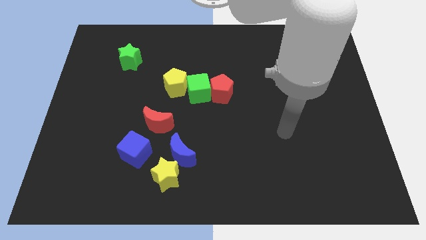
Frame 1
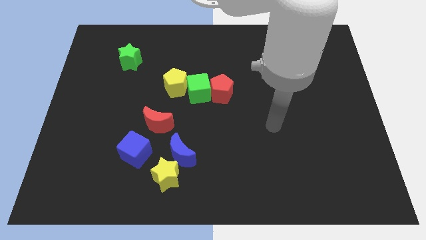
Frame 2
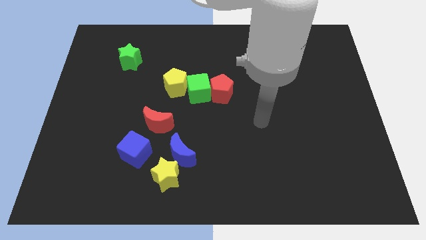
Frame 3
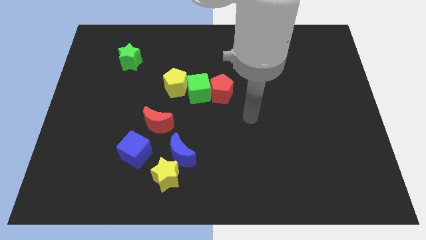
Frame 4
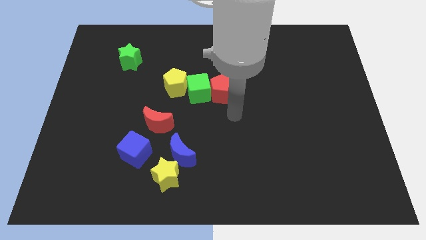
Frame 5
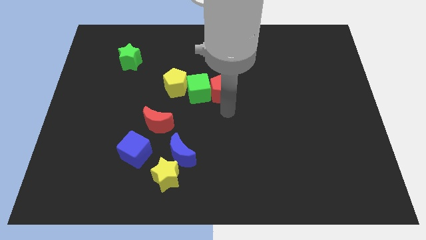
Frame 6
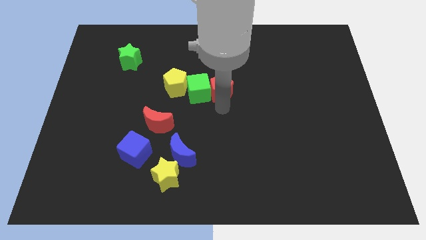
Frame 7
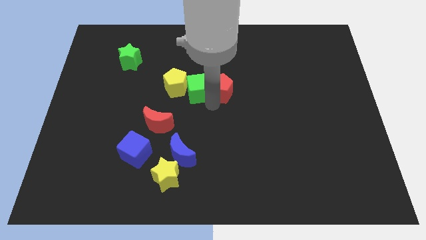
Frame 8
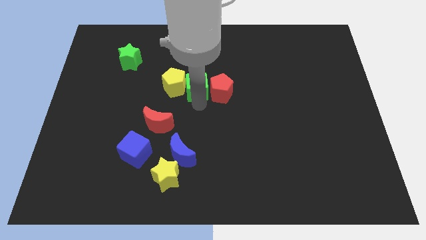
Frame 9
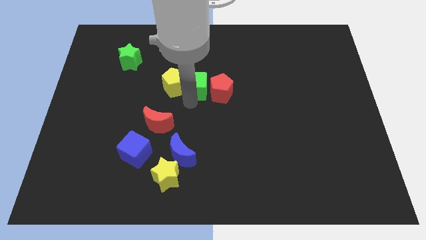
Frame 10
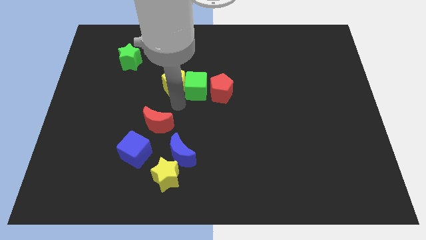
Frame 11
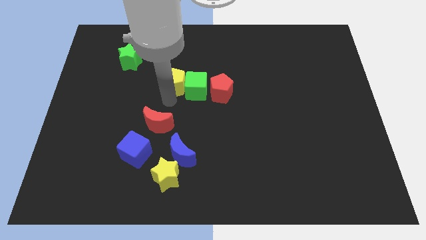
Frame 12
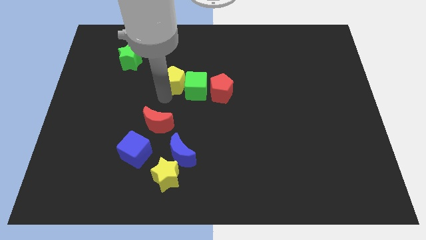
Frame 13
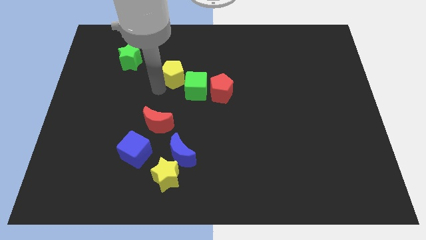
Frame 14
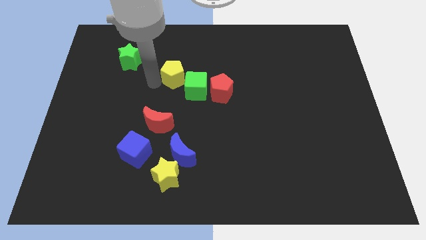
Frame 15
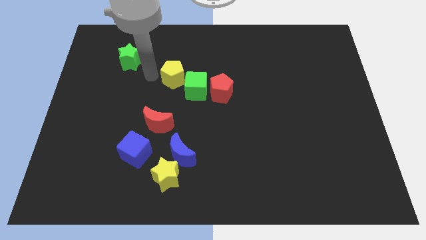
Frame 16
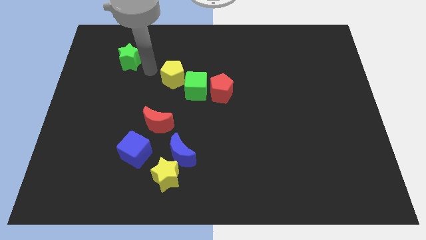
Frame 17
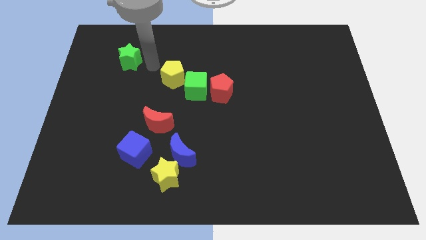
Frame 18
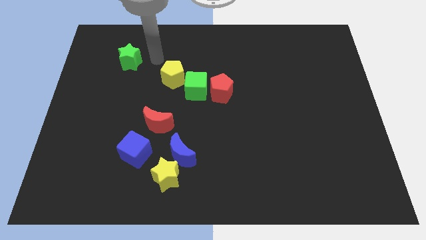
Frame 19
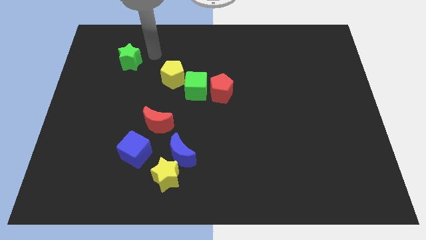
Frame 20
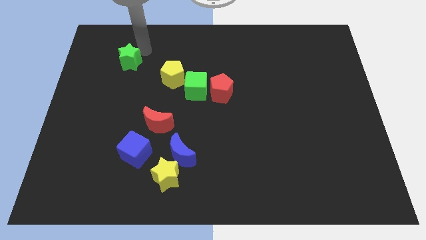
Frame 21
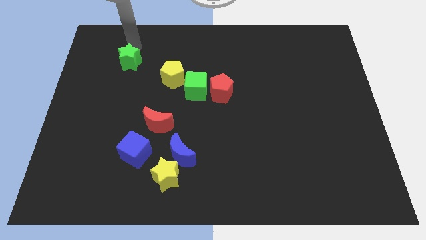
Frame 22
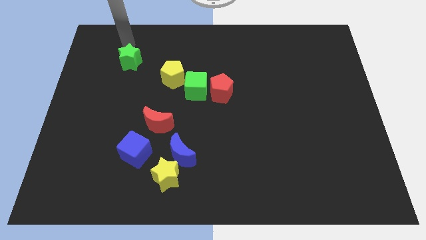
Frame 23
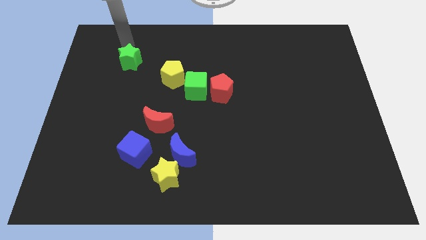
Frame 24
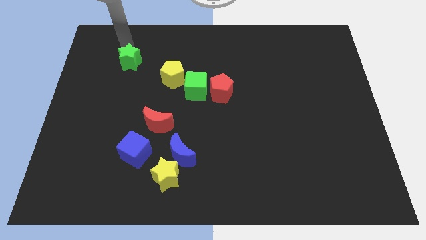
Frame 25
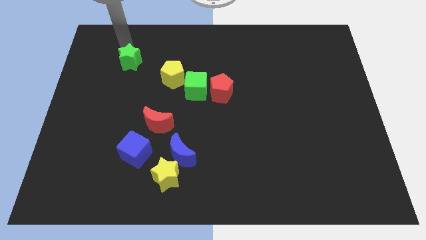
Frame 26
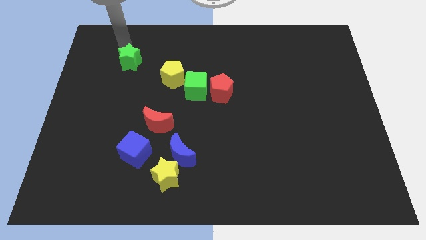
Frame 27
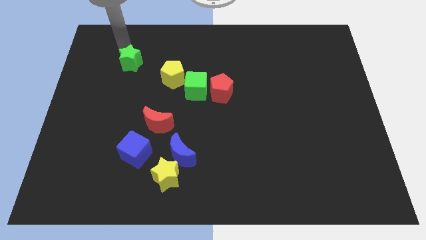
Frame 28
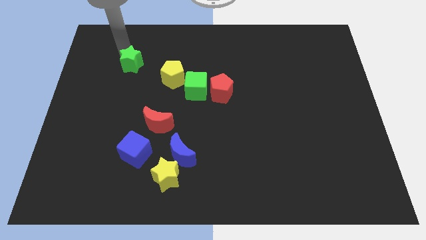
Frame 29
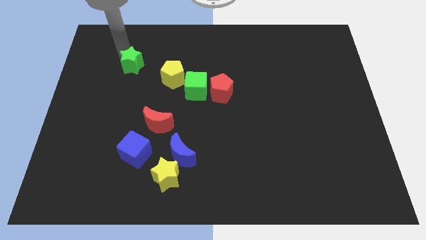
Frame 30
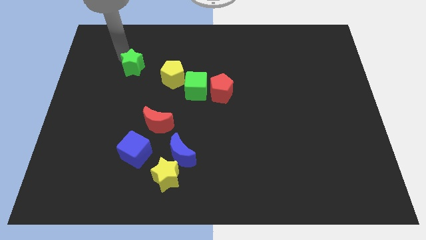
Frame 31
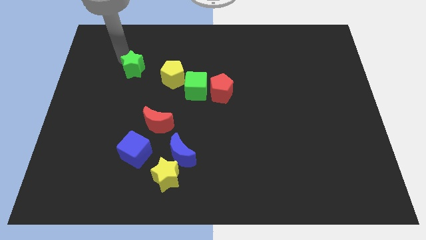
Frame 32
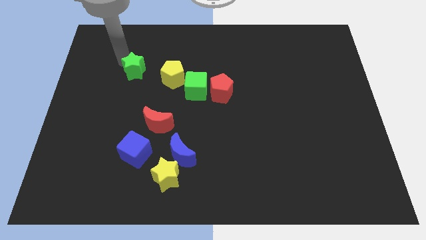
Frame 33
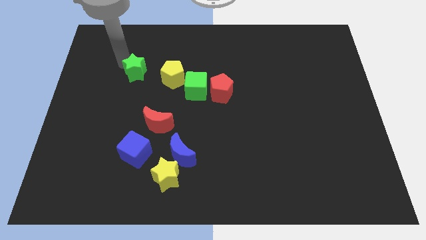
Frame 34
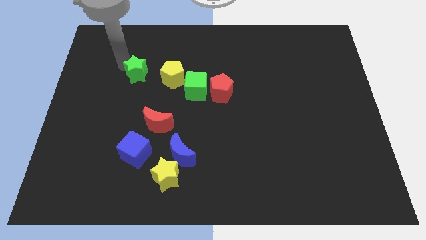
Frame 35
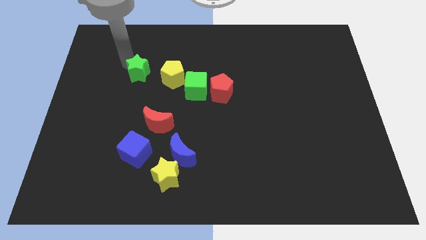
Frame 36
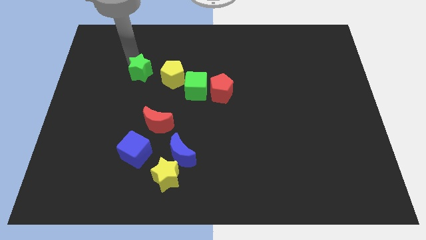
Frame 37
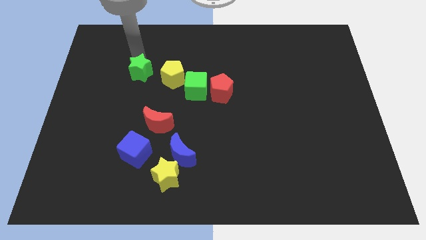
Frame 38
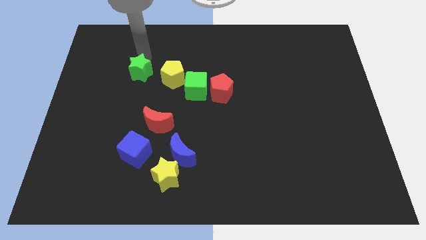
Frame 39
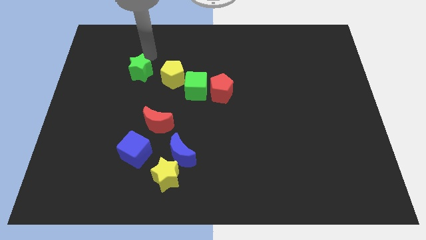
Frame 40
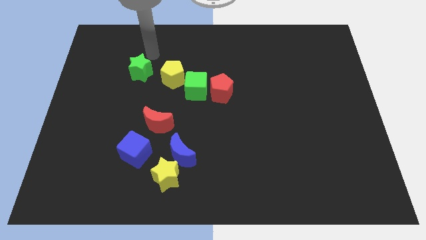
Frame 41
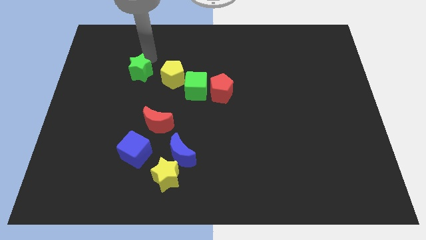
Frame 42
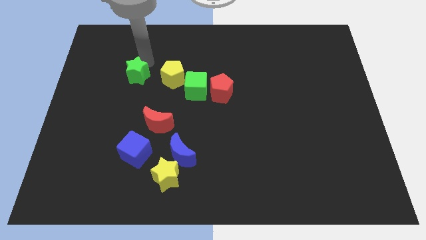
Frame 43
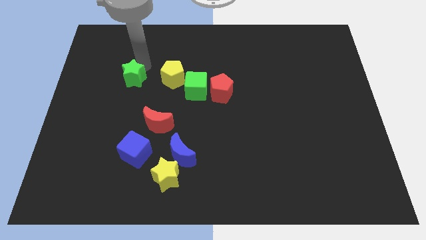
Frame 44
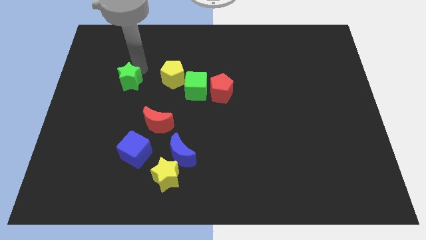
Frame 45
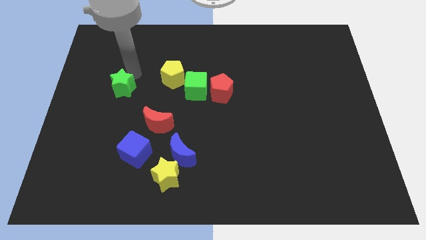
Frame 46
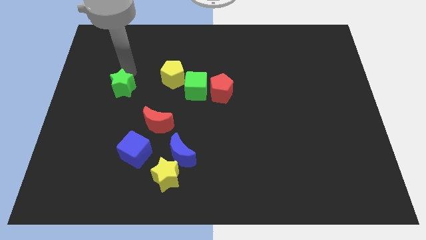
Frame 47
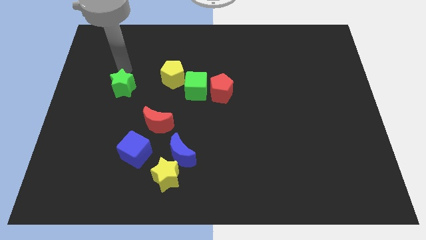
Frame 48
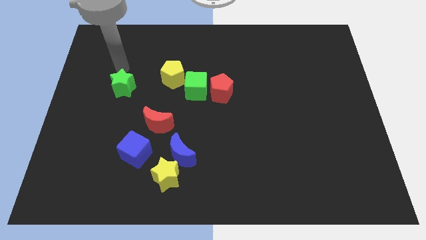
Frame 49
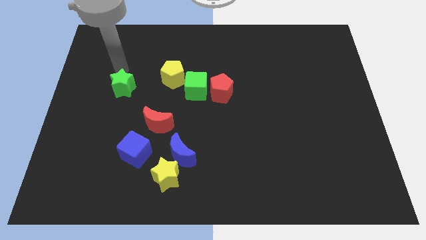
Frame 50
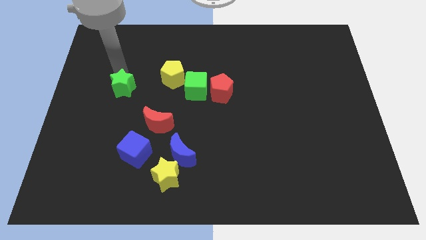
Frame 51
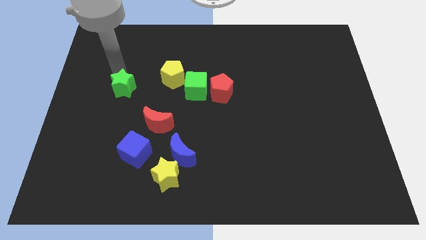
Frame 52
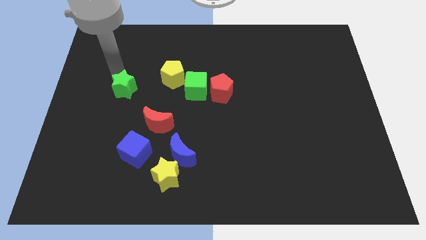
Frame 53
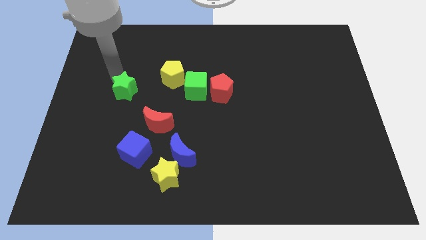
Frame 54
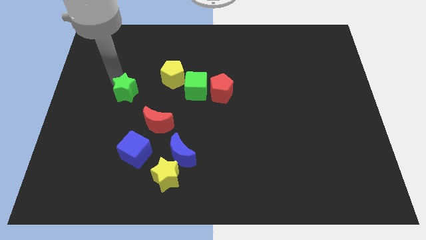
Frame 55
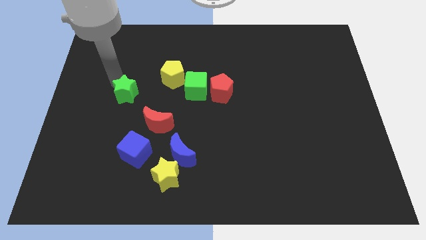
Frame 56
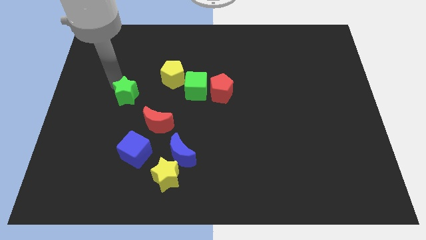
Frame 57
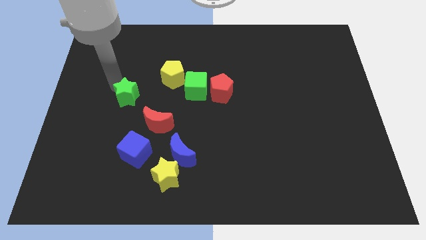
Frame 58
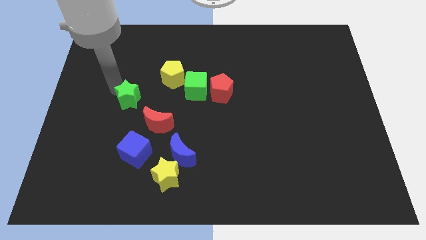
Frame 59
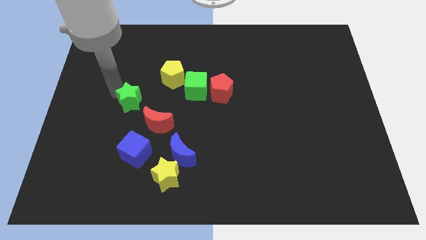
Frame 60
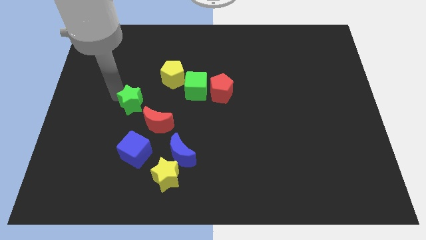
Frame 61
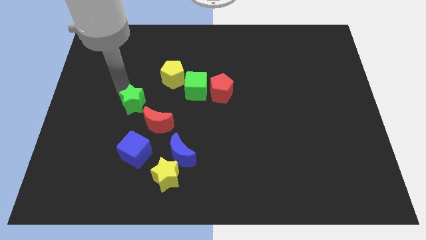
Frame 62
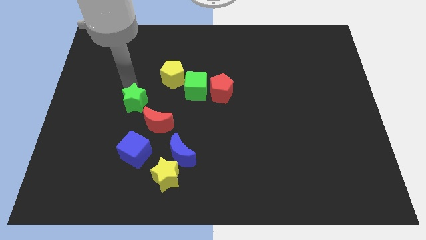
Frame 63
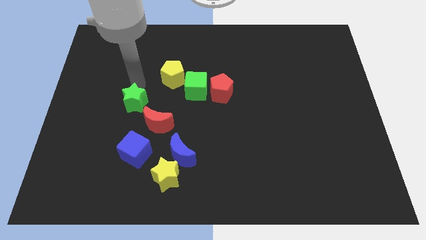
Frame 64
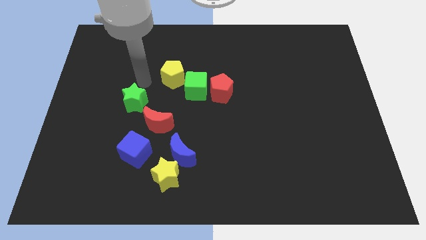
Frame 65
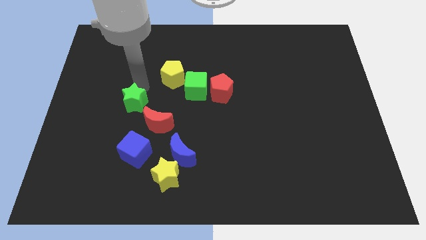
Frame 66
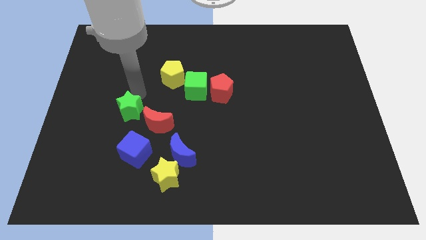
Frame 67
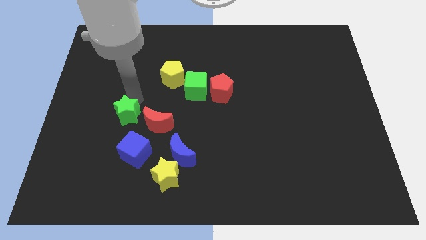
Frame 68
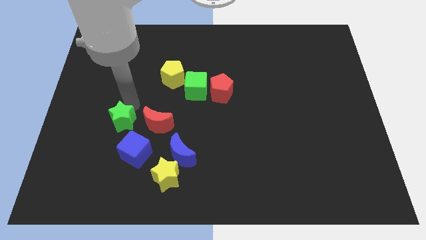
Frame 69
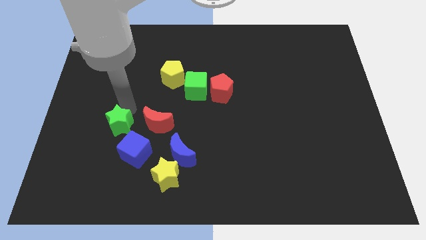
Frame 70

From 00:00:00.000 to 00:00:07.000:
push the green star down

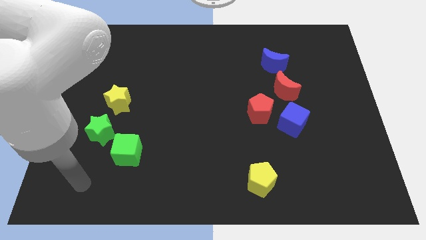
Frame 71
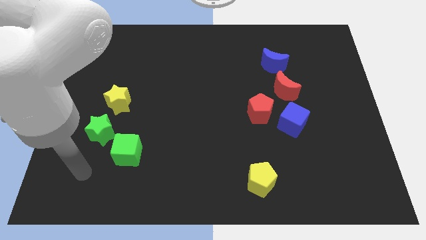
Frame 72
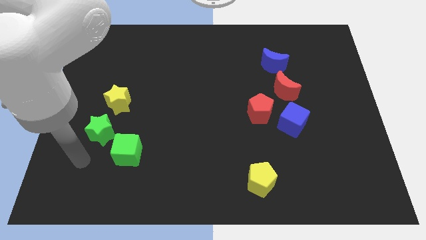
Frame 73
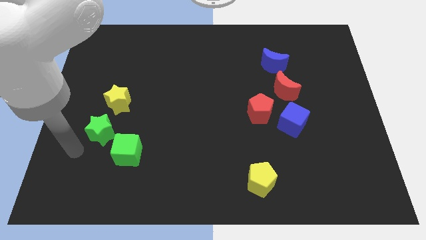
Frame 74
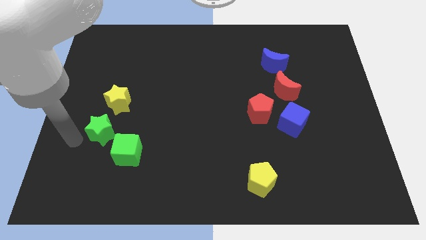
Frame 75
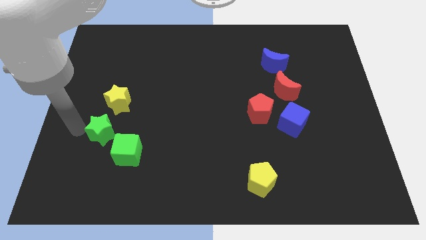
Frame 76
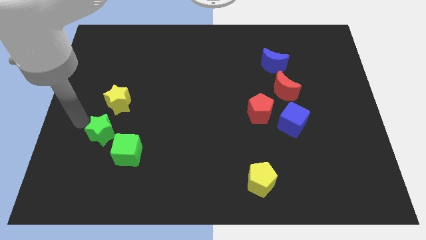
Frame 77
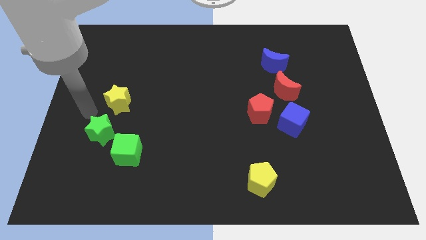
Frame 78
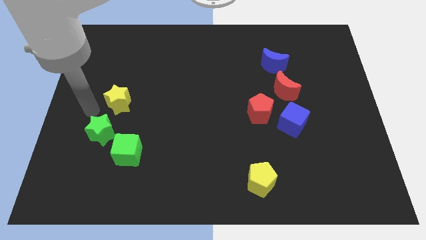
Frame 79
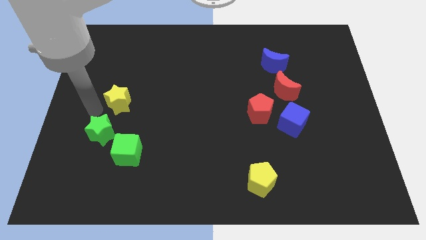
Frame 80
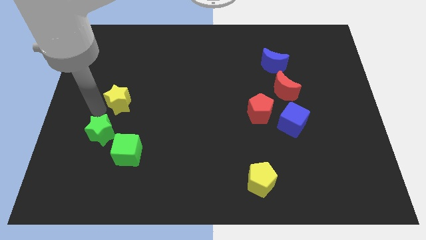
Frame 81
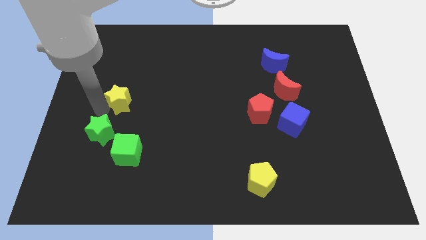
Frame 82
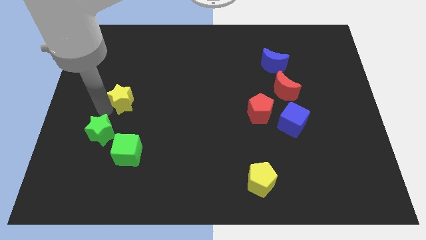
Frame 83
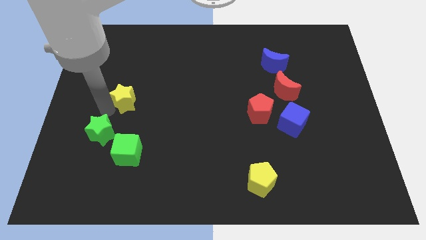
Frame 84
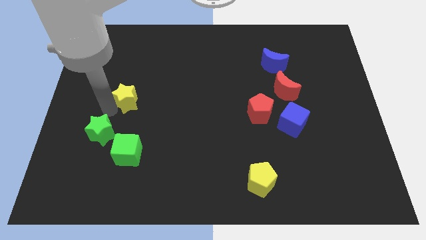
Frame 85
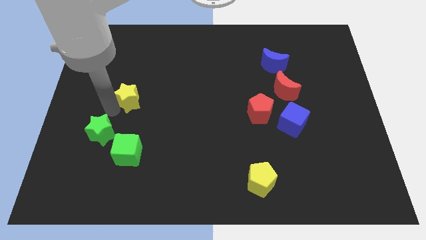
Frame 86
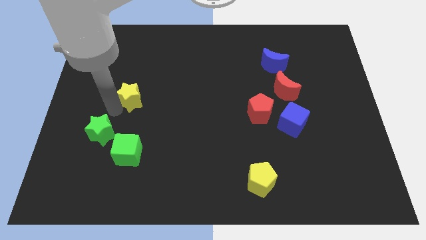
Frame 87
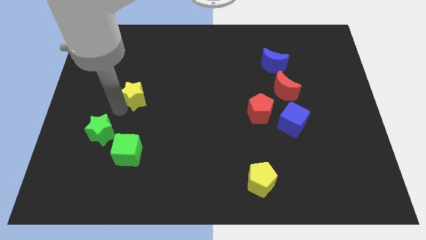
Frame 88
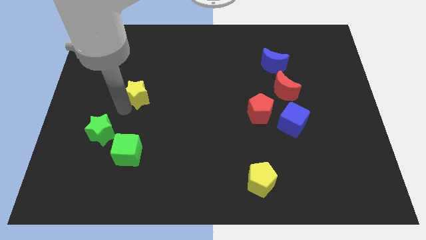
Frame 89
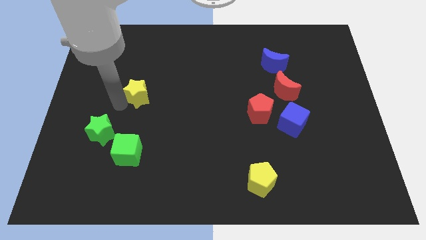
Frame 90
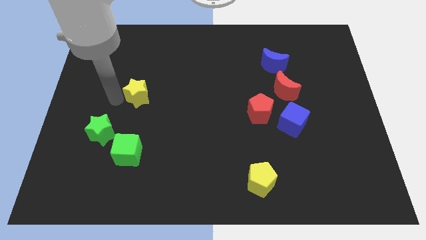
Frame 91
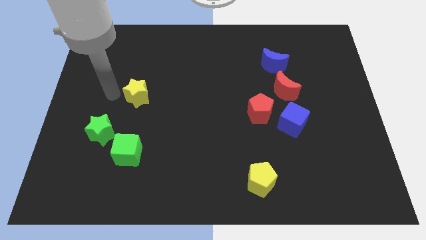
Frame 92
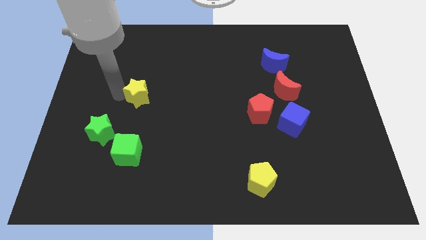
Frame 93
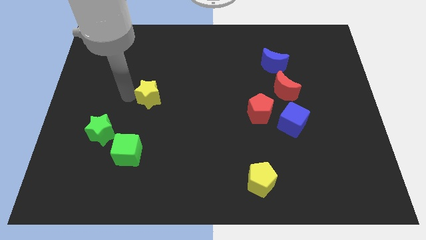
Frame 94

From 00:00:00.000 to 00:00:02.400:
slide the yellow star right a bit
